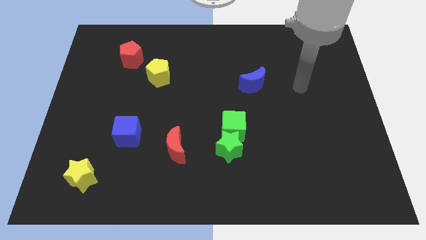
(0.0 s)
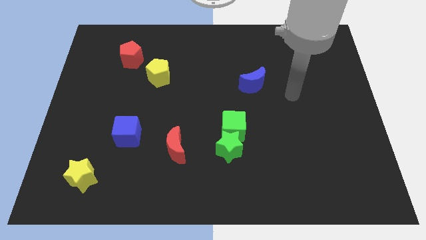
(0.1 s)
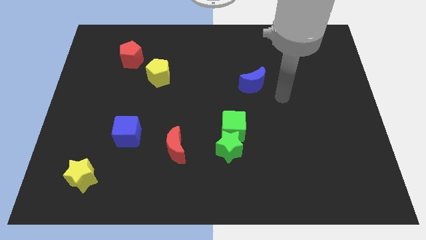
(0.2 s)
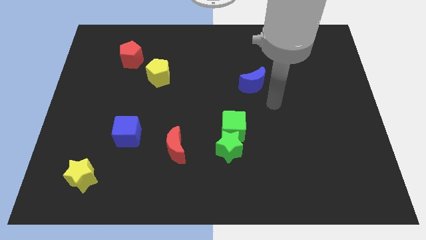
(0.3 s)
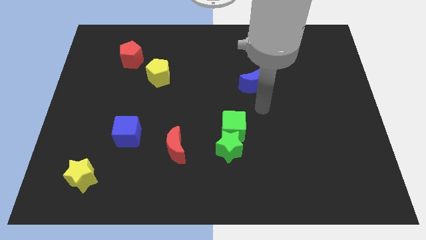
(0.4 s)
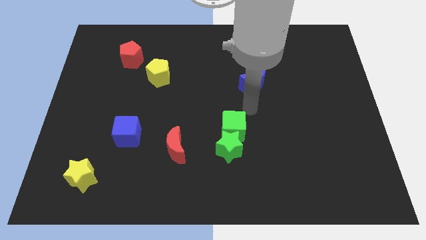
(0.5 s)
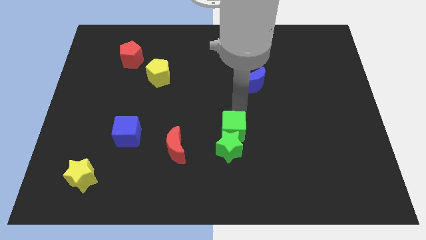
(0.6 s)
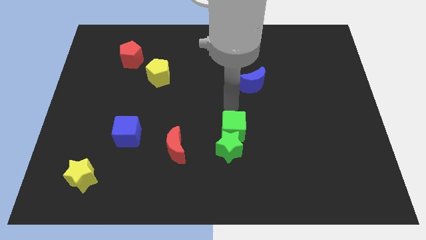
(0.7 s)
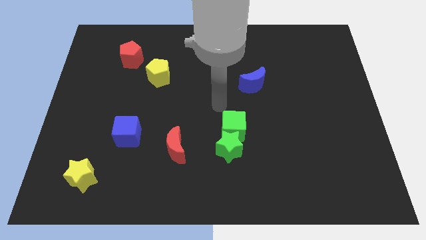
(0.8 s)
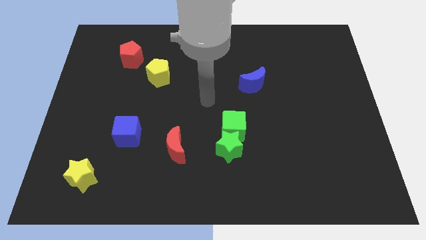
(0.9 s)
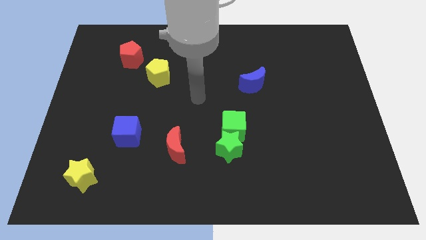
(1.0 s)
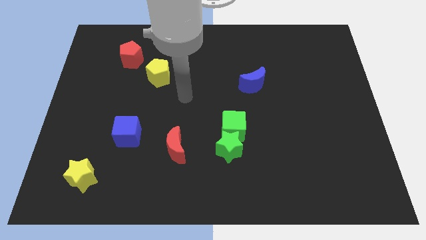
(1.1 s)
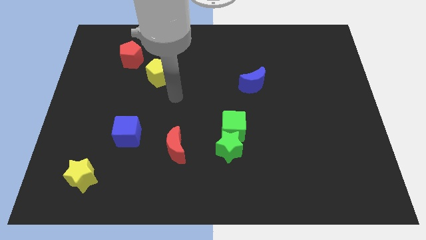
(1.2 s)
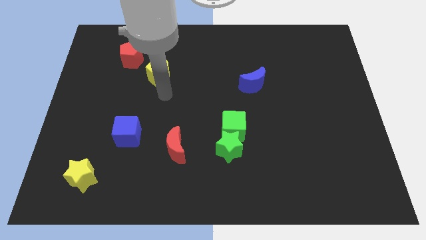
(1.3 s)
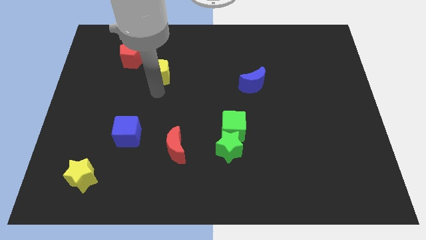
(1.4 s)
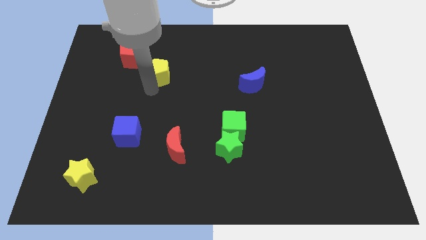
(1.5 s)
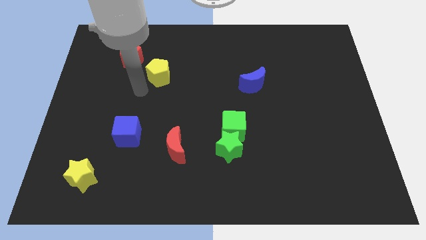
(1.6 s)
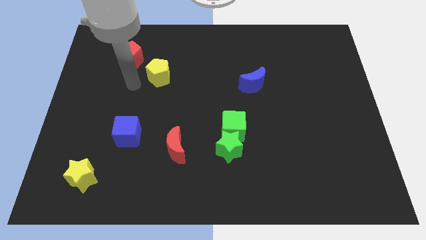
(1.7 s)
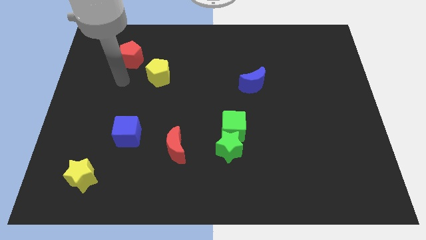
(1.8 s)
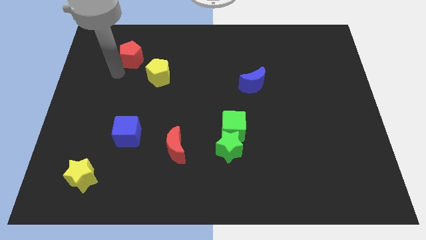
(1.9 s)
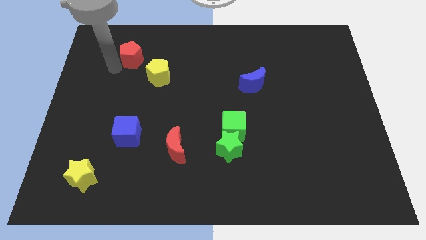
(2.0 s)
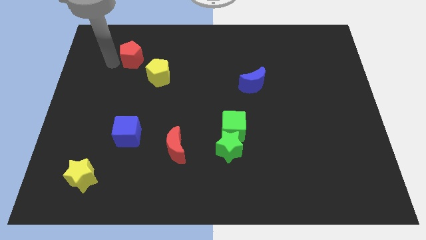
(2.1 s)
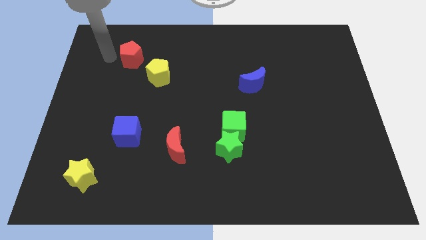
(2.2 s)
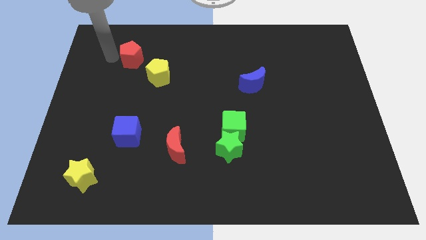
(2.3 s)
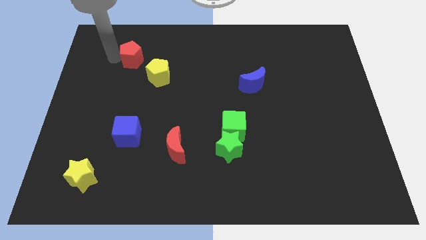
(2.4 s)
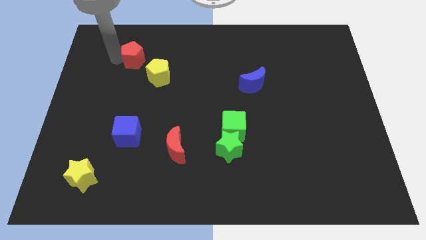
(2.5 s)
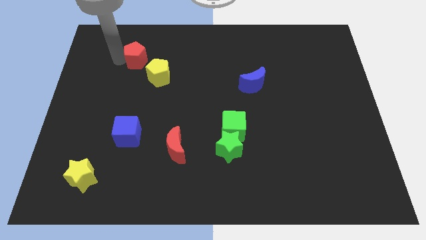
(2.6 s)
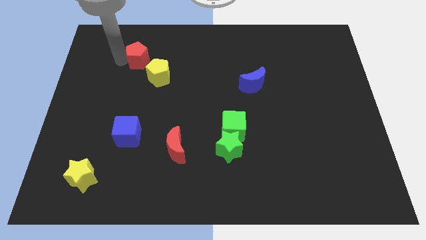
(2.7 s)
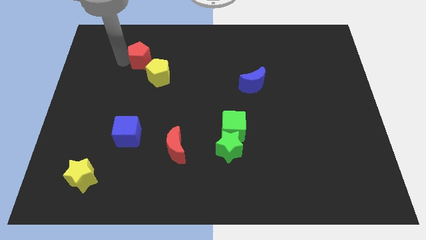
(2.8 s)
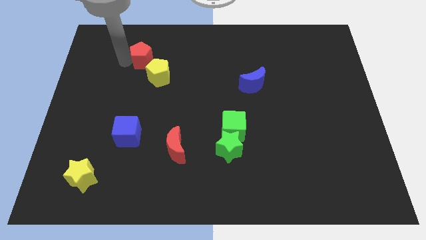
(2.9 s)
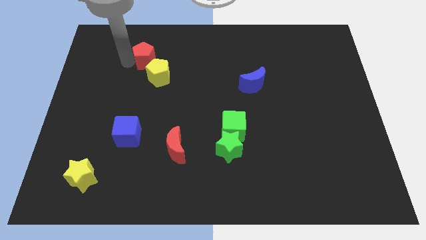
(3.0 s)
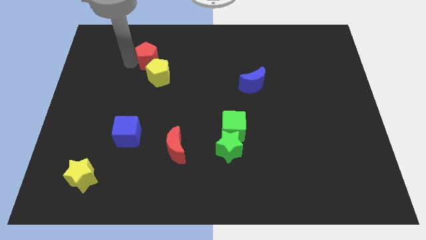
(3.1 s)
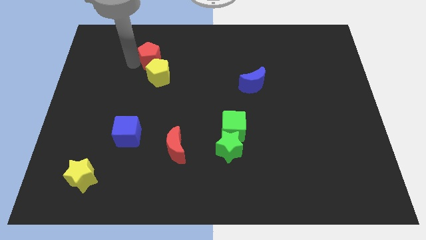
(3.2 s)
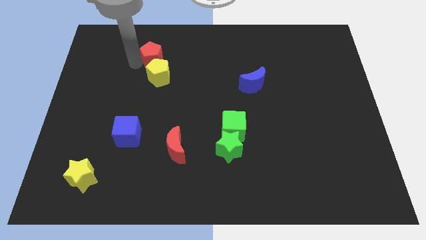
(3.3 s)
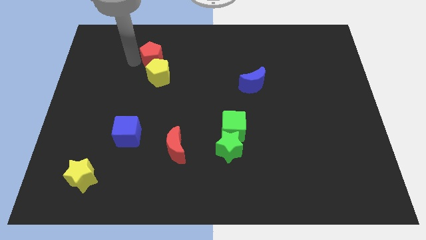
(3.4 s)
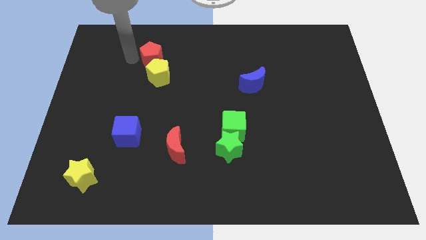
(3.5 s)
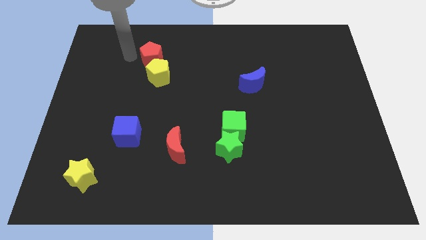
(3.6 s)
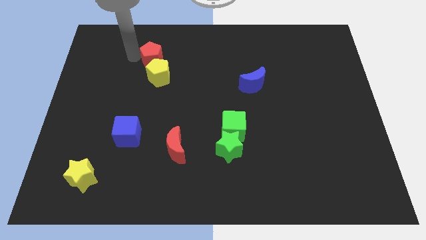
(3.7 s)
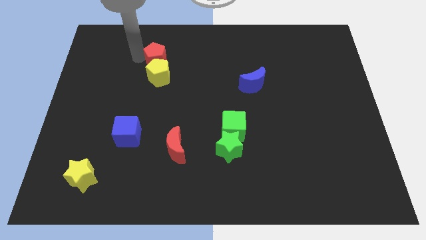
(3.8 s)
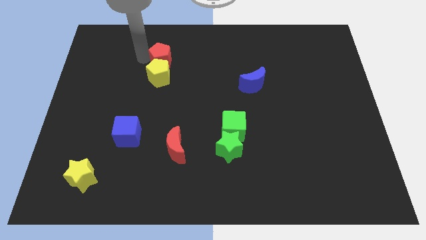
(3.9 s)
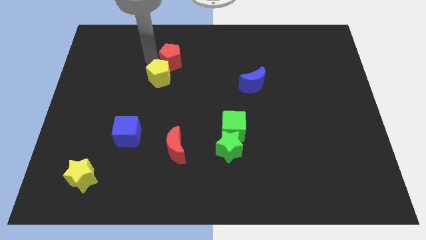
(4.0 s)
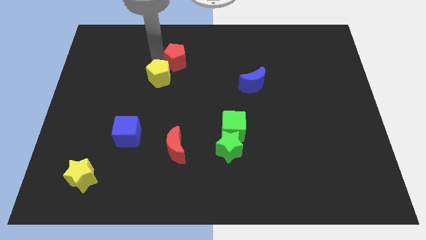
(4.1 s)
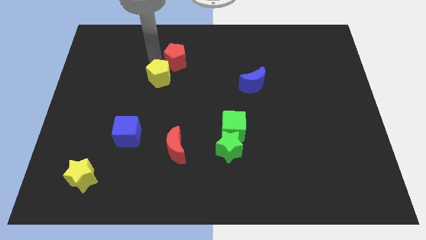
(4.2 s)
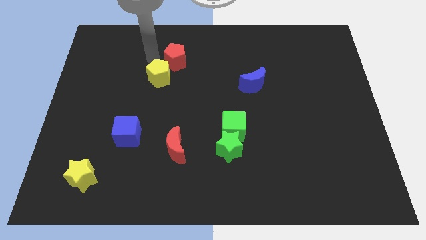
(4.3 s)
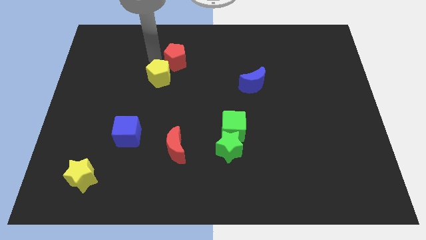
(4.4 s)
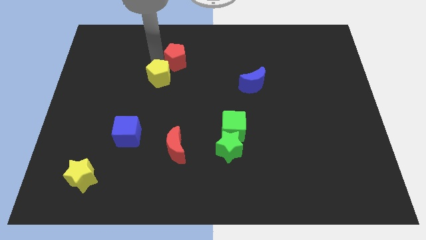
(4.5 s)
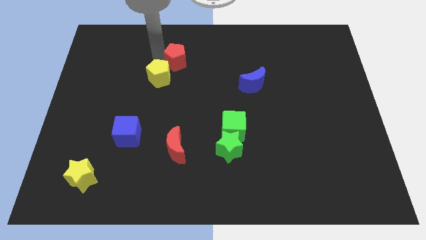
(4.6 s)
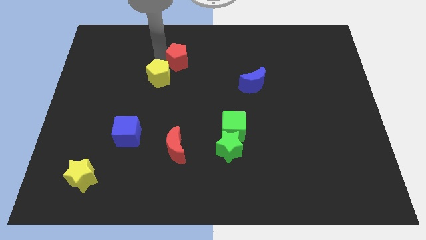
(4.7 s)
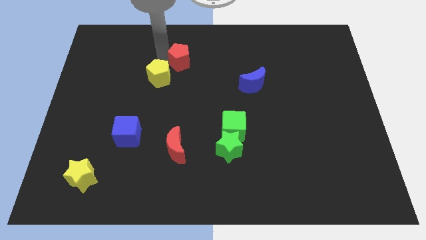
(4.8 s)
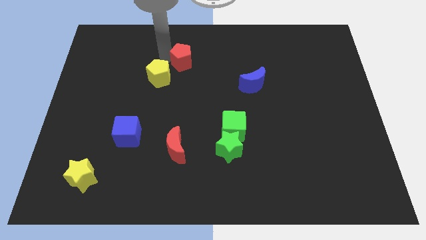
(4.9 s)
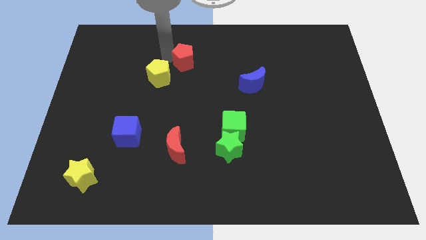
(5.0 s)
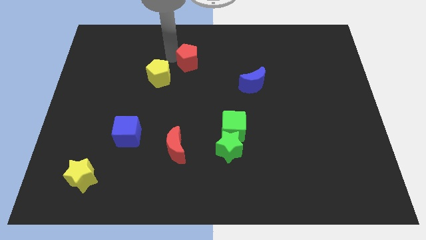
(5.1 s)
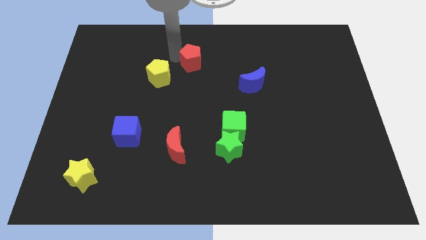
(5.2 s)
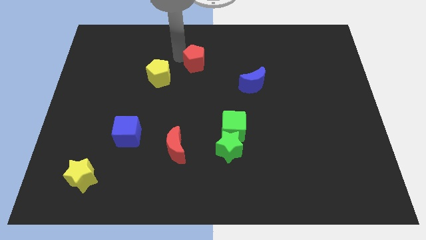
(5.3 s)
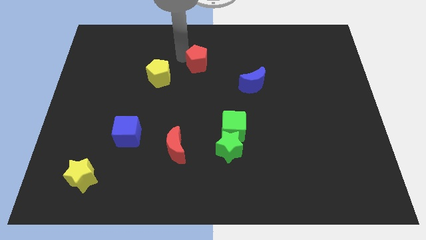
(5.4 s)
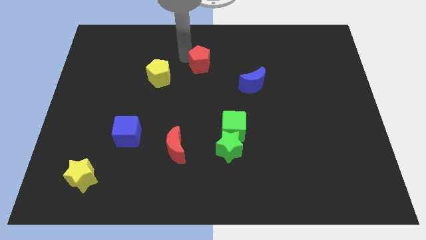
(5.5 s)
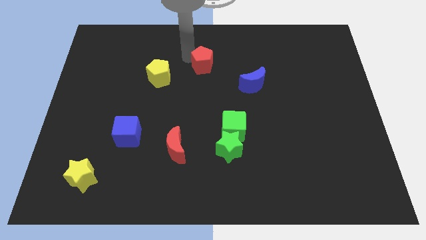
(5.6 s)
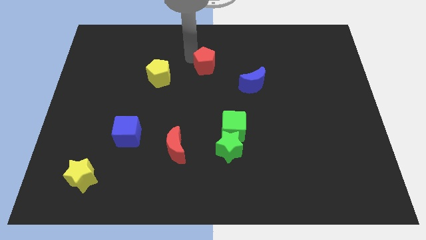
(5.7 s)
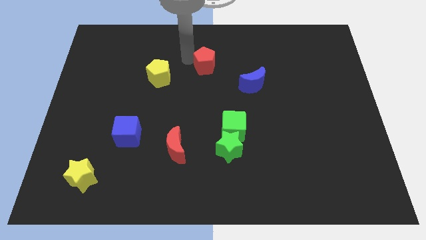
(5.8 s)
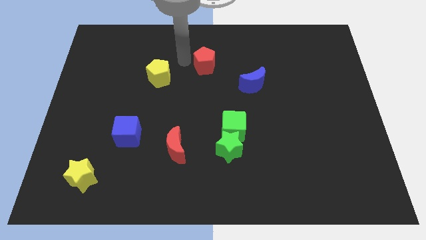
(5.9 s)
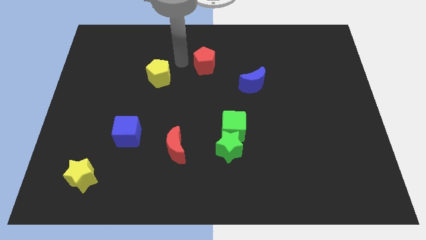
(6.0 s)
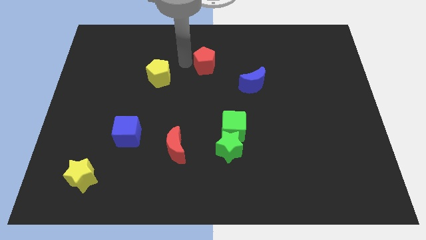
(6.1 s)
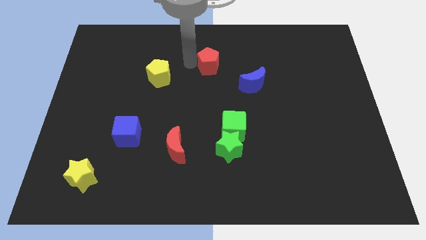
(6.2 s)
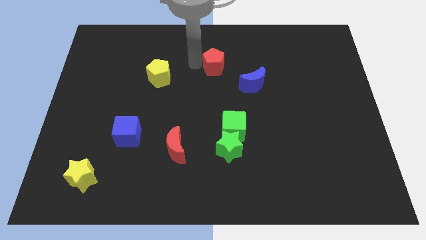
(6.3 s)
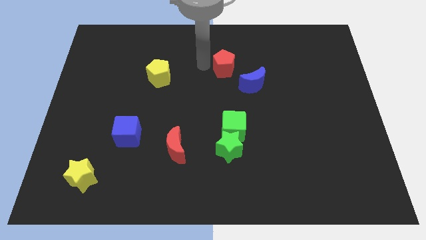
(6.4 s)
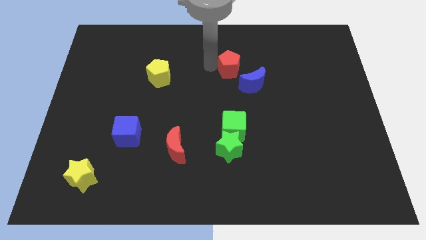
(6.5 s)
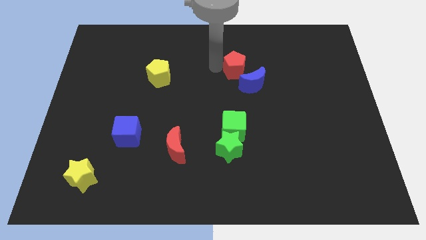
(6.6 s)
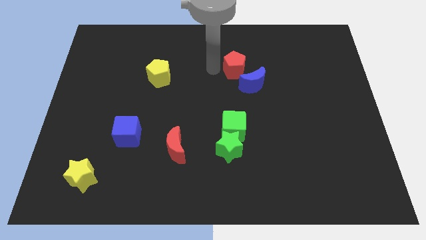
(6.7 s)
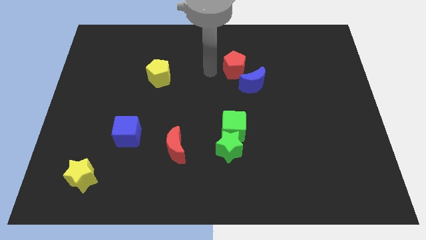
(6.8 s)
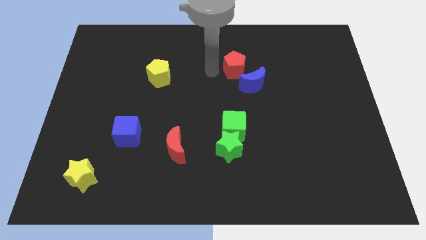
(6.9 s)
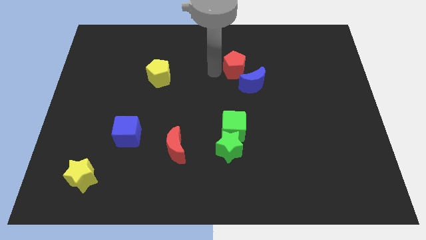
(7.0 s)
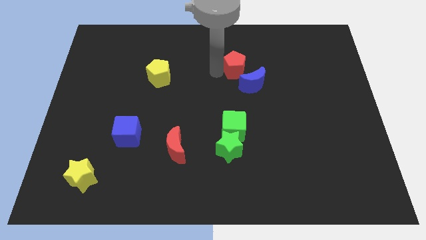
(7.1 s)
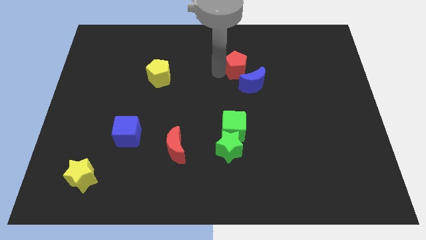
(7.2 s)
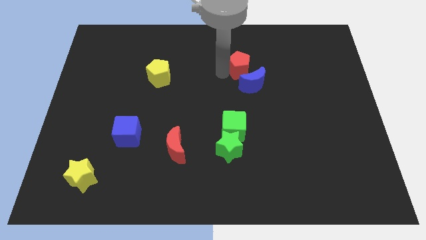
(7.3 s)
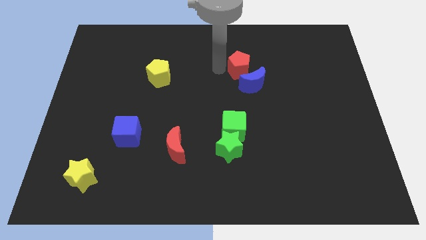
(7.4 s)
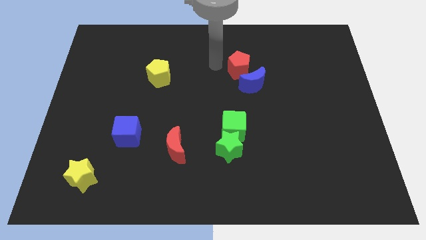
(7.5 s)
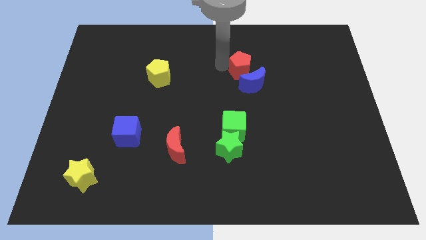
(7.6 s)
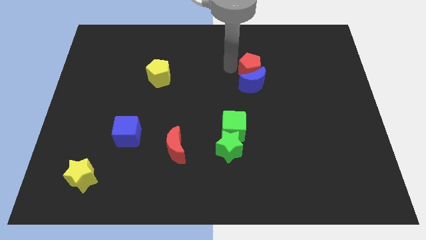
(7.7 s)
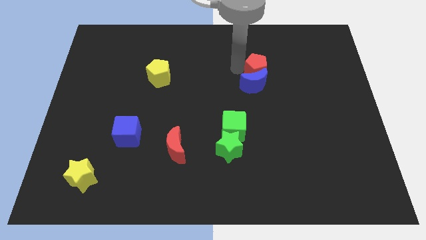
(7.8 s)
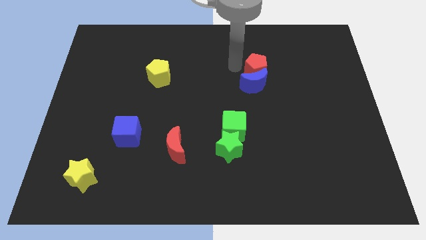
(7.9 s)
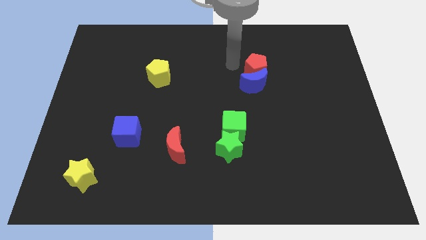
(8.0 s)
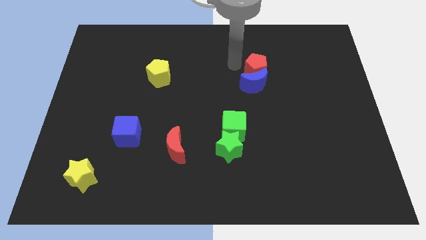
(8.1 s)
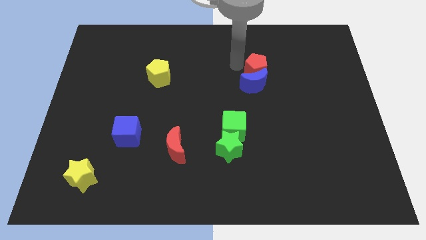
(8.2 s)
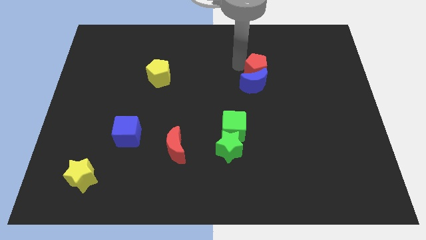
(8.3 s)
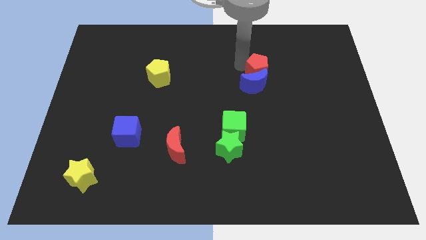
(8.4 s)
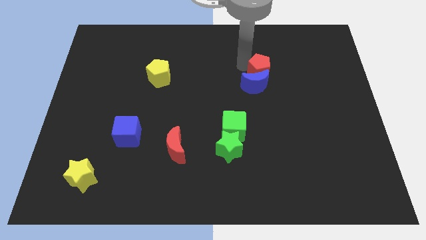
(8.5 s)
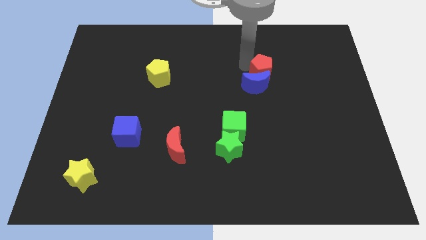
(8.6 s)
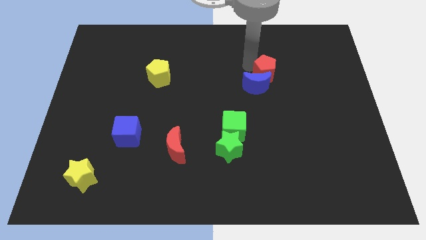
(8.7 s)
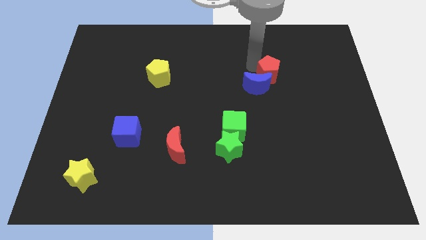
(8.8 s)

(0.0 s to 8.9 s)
push the red pentagon to the right side of the blue moon
